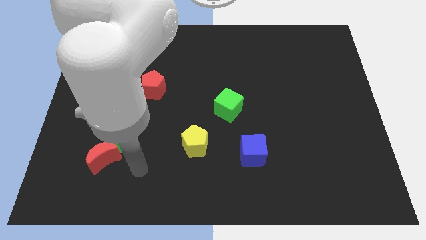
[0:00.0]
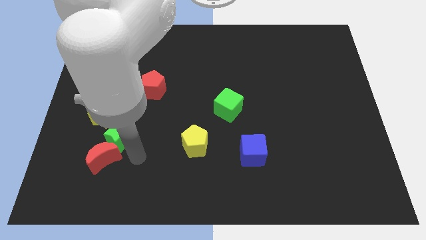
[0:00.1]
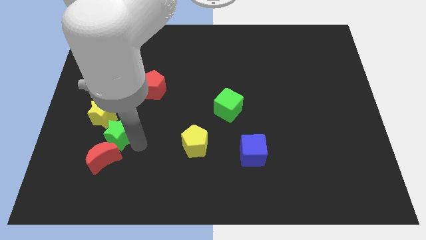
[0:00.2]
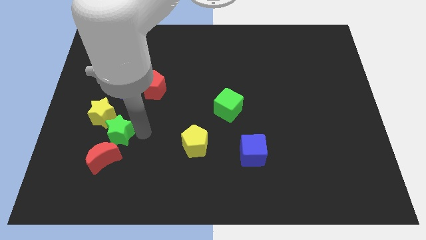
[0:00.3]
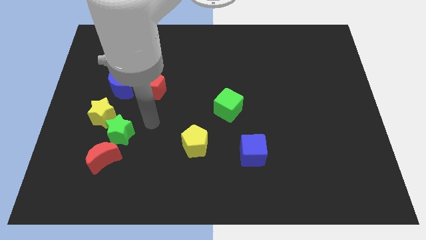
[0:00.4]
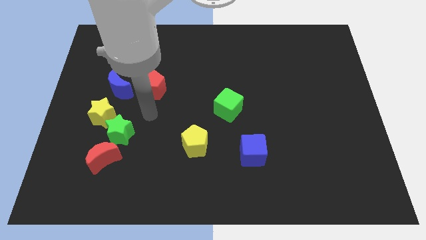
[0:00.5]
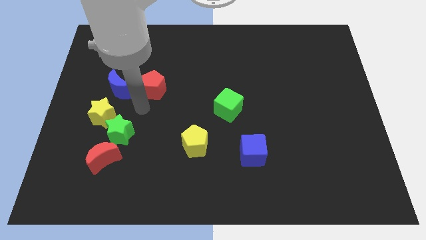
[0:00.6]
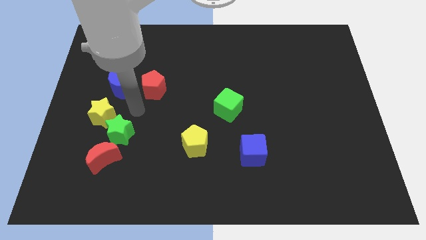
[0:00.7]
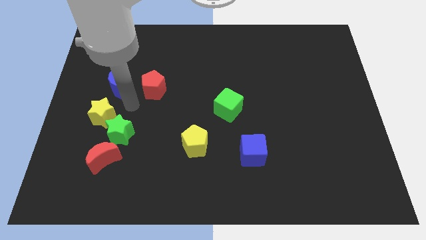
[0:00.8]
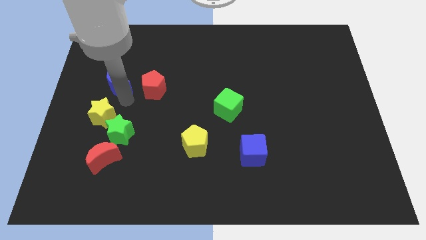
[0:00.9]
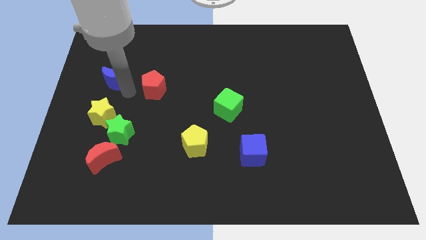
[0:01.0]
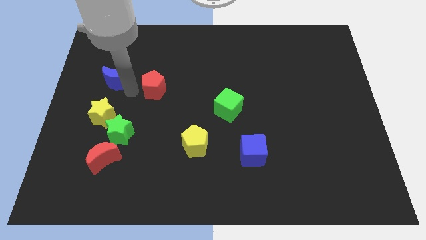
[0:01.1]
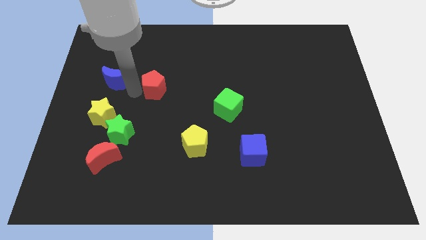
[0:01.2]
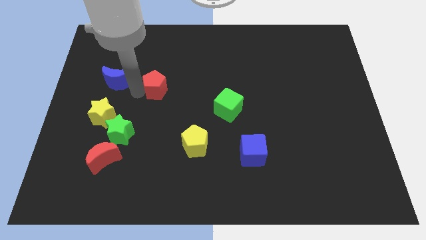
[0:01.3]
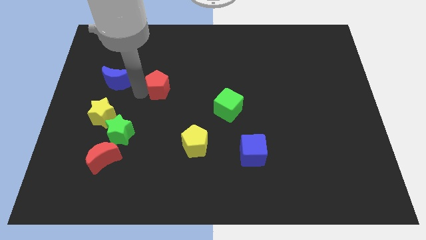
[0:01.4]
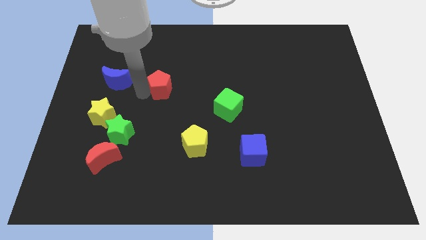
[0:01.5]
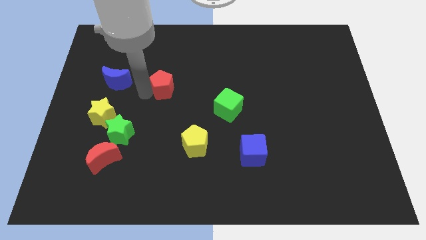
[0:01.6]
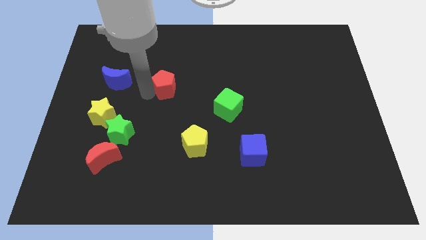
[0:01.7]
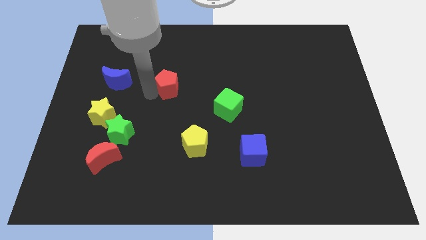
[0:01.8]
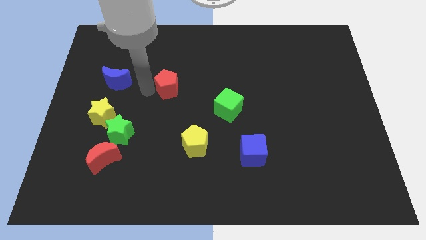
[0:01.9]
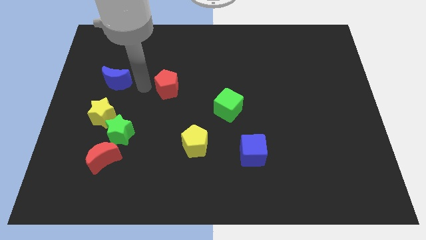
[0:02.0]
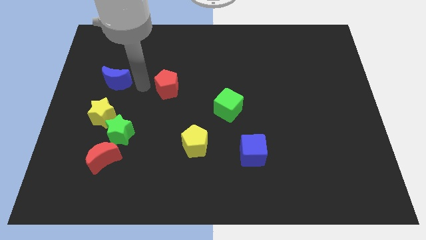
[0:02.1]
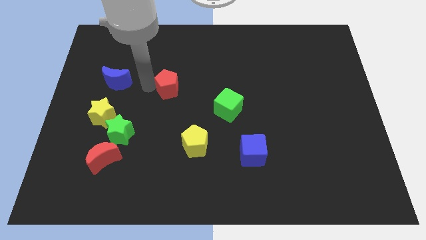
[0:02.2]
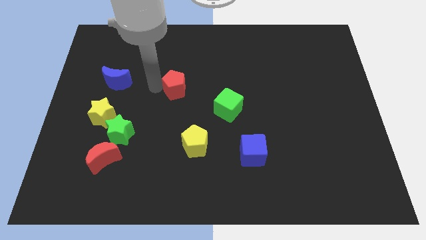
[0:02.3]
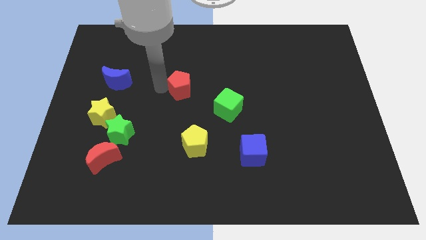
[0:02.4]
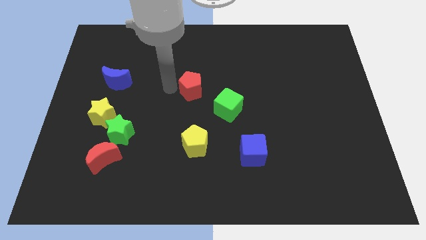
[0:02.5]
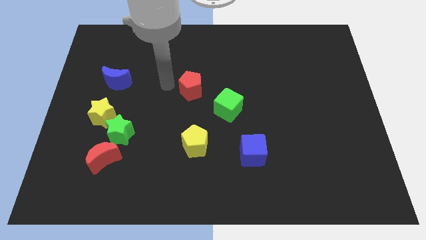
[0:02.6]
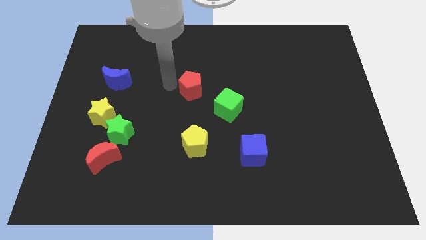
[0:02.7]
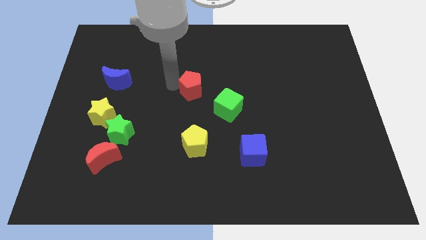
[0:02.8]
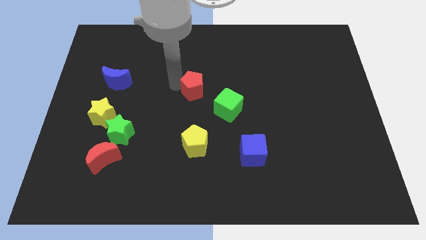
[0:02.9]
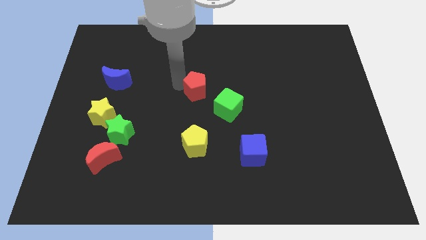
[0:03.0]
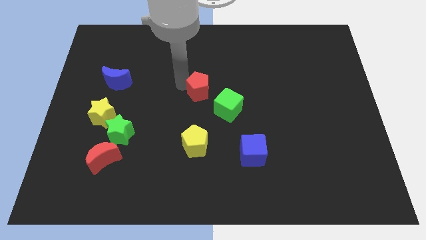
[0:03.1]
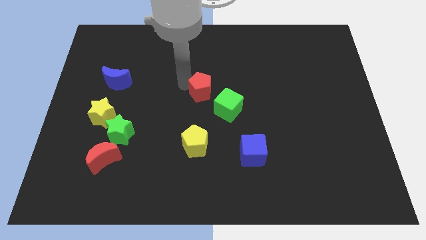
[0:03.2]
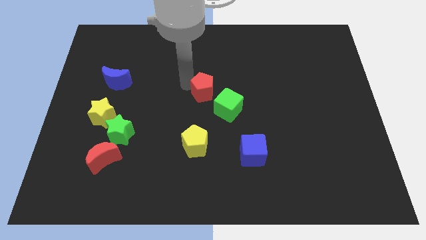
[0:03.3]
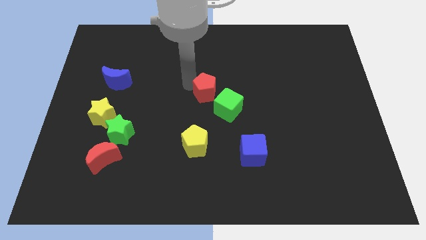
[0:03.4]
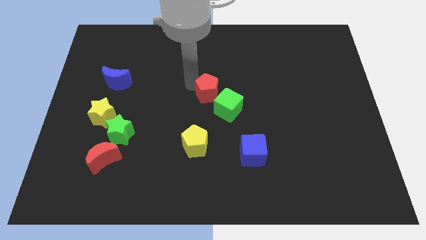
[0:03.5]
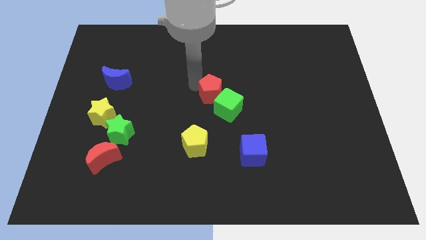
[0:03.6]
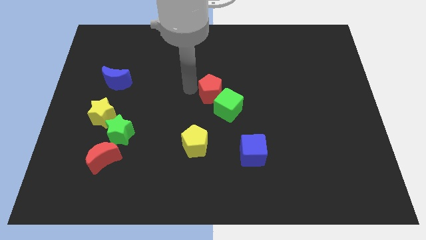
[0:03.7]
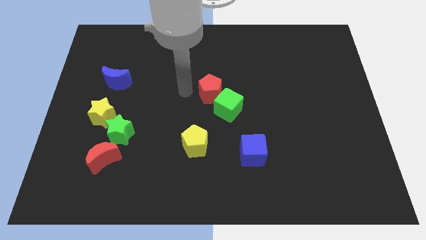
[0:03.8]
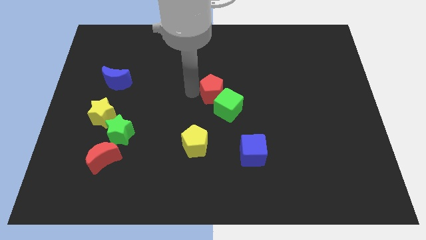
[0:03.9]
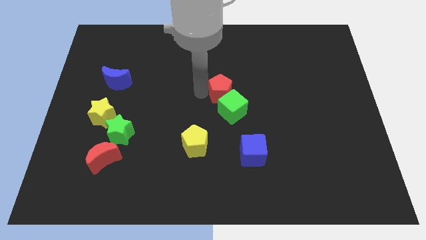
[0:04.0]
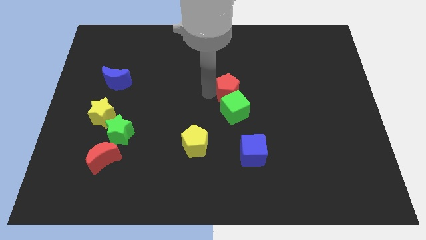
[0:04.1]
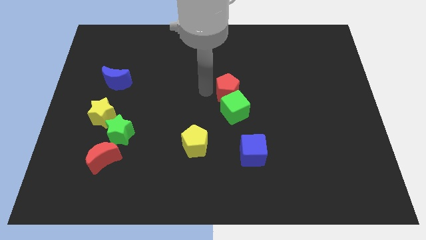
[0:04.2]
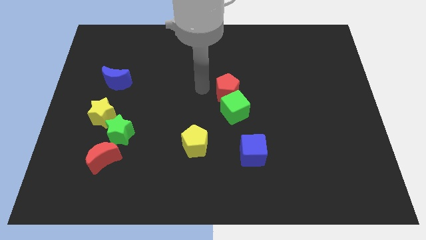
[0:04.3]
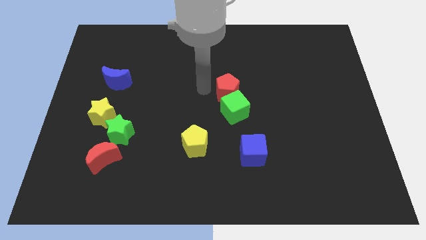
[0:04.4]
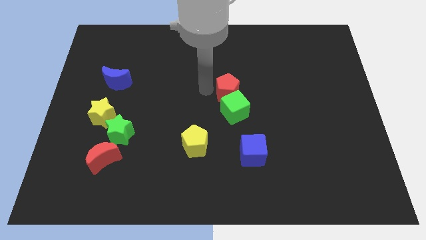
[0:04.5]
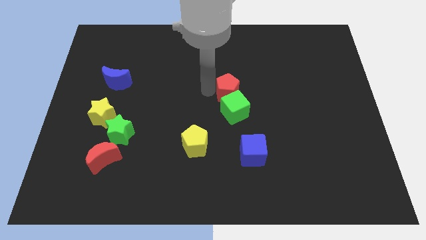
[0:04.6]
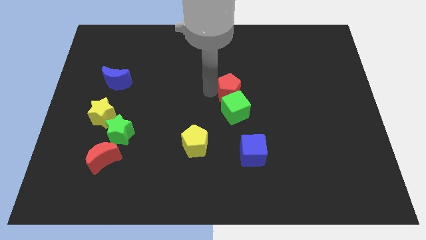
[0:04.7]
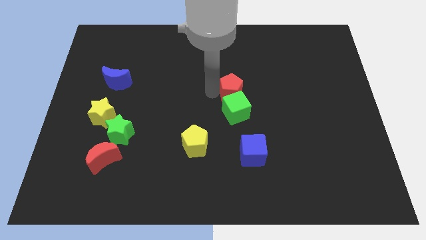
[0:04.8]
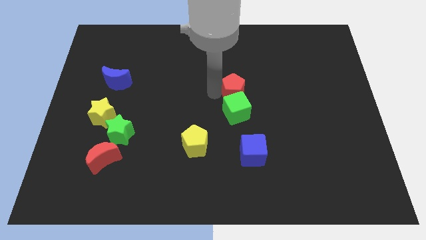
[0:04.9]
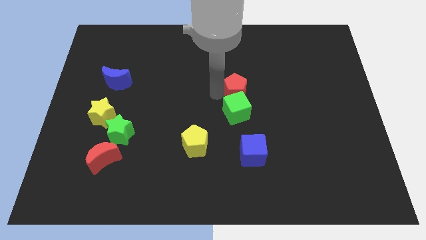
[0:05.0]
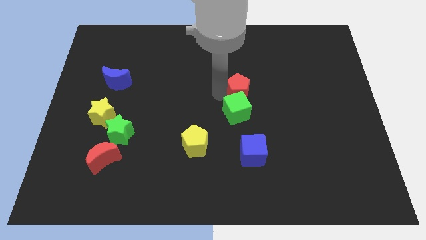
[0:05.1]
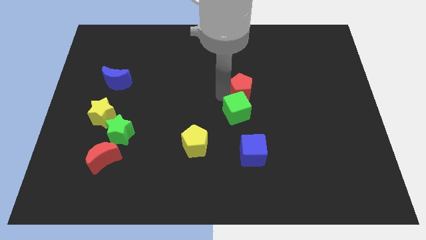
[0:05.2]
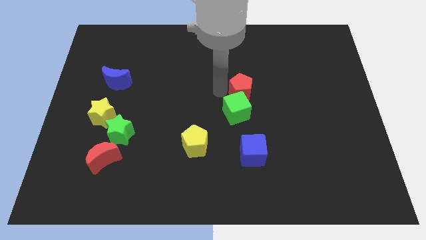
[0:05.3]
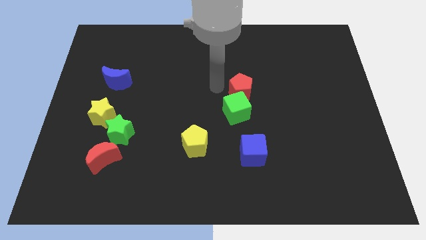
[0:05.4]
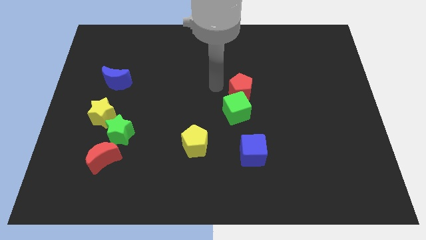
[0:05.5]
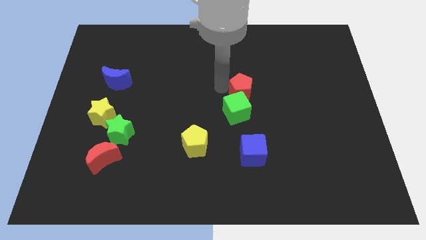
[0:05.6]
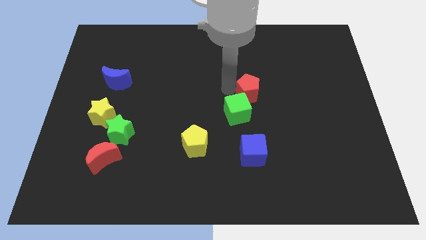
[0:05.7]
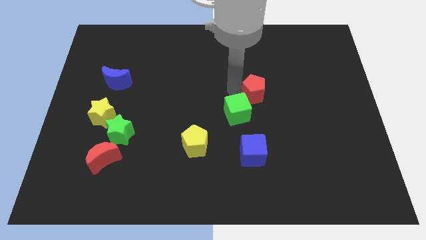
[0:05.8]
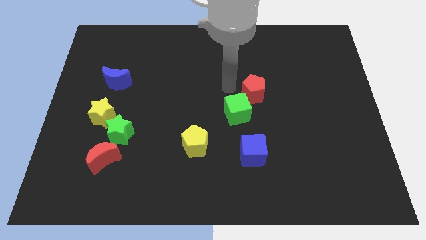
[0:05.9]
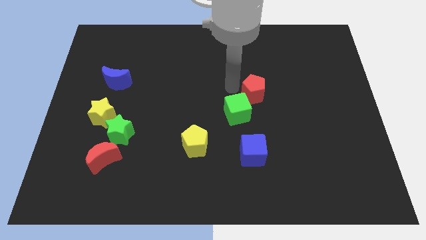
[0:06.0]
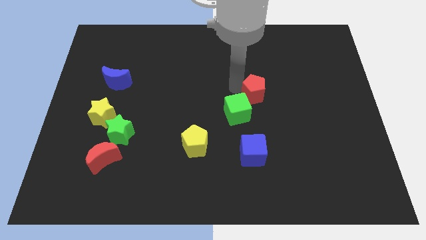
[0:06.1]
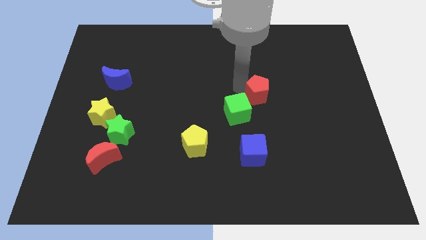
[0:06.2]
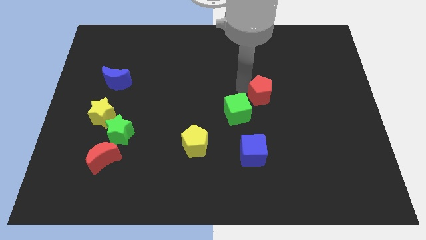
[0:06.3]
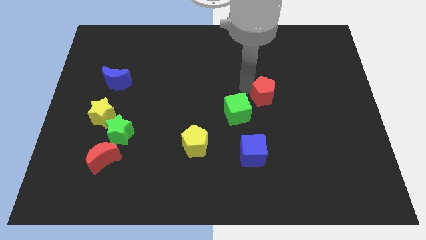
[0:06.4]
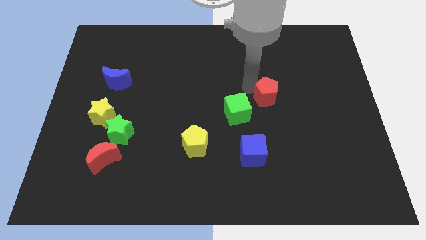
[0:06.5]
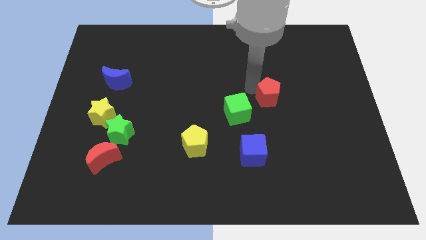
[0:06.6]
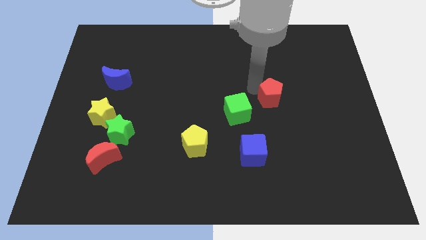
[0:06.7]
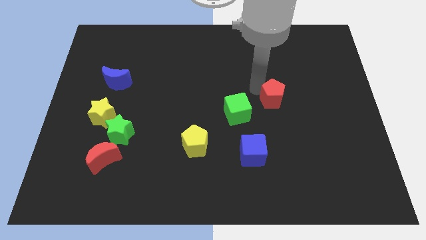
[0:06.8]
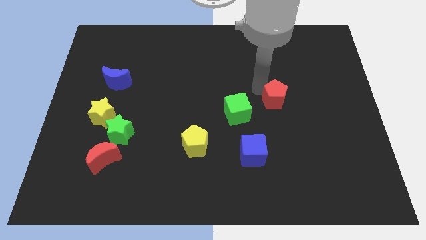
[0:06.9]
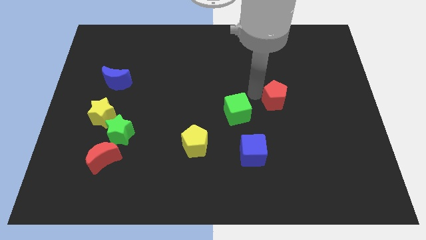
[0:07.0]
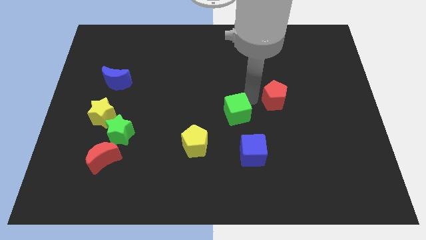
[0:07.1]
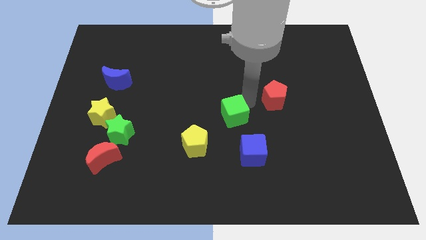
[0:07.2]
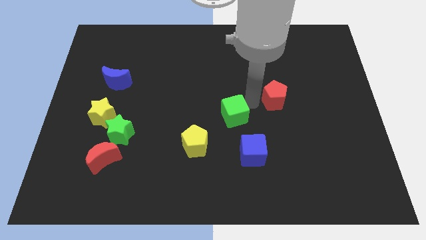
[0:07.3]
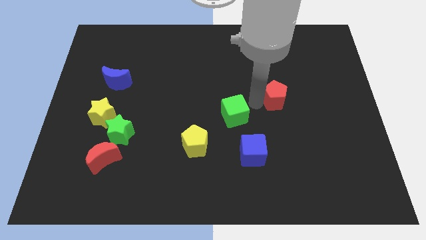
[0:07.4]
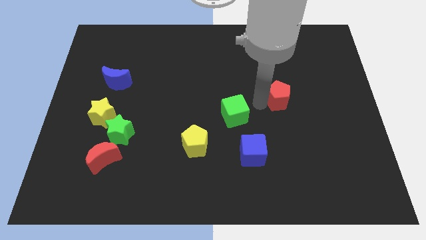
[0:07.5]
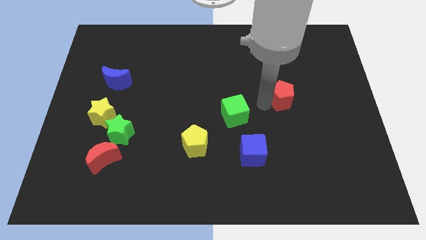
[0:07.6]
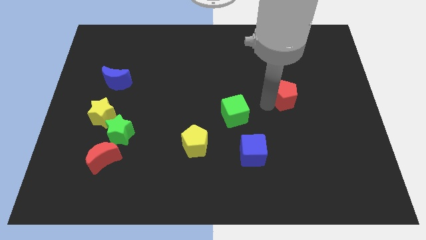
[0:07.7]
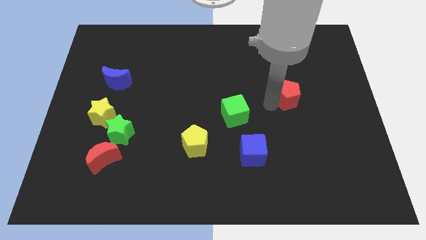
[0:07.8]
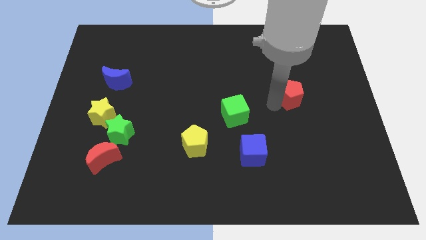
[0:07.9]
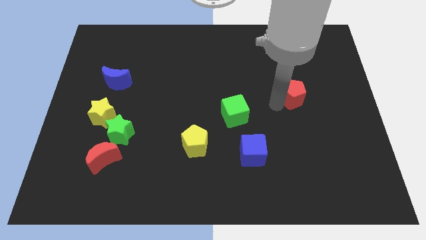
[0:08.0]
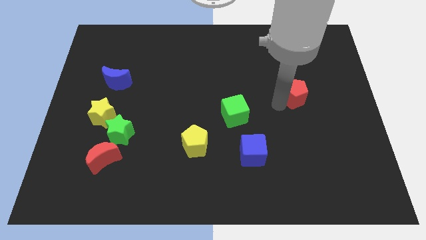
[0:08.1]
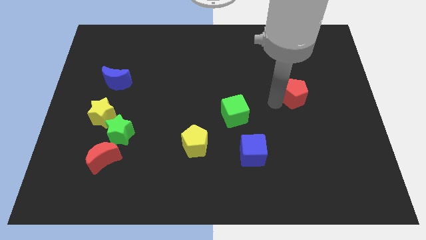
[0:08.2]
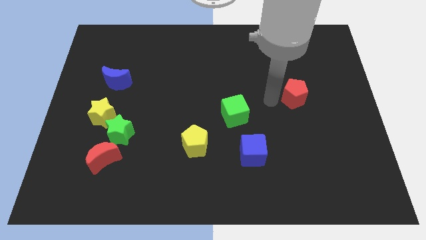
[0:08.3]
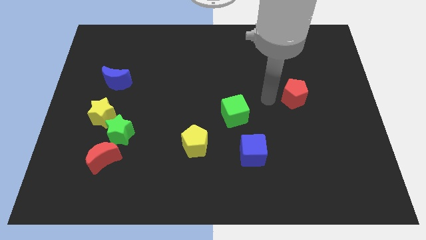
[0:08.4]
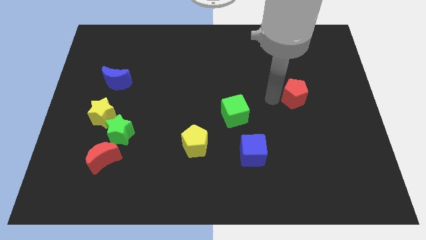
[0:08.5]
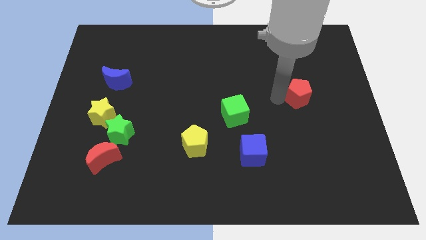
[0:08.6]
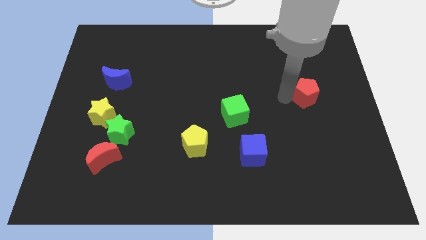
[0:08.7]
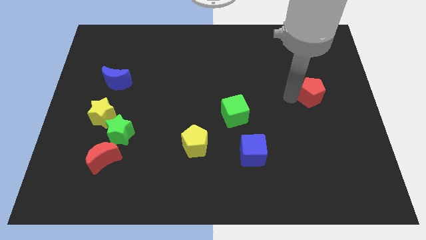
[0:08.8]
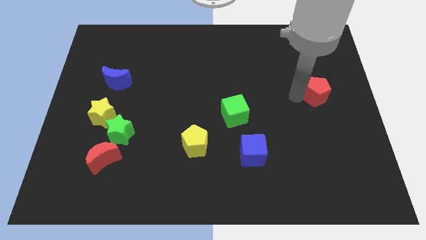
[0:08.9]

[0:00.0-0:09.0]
slide the red pentagon to the center right
